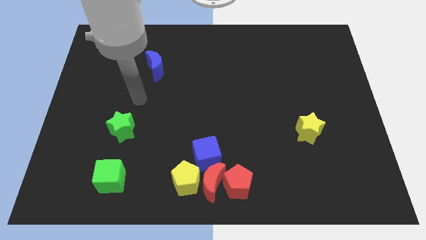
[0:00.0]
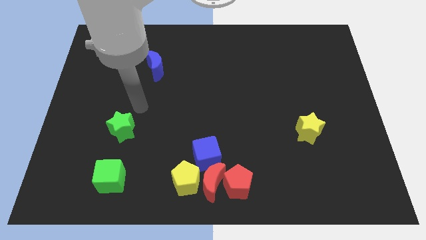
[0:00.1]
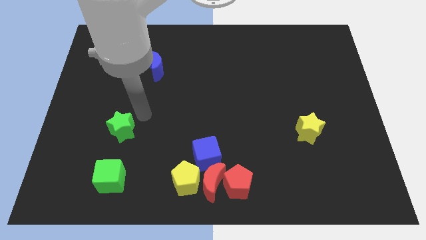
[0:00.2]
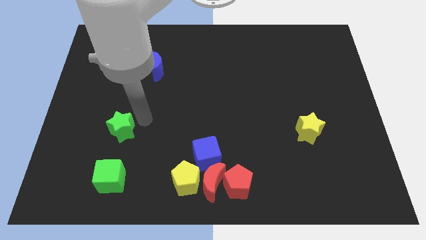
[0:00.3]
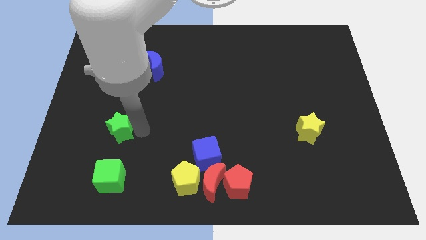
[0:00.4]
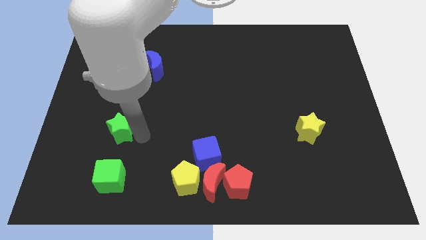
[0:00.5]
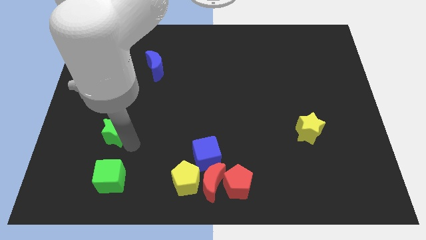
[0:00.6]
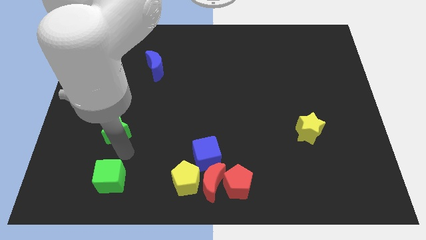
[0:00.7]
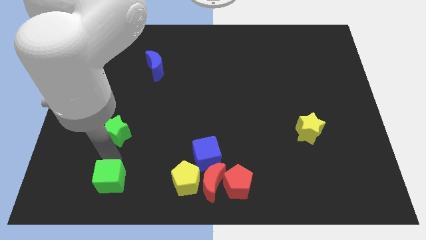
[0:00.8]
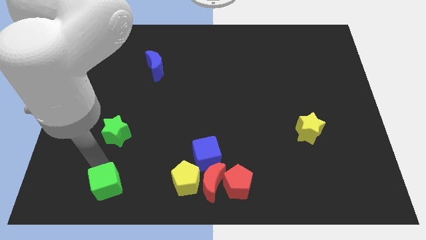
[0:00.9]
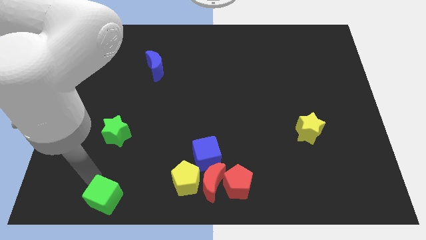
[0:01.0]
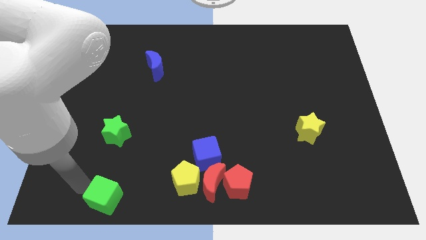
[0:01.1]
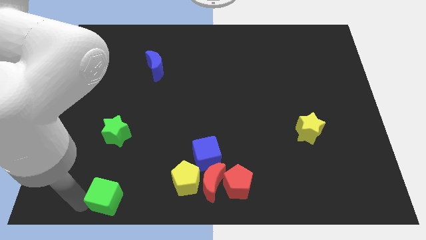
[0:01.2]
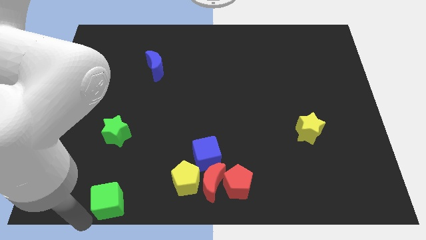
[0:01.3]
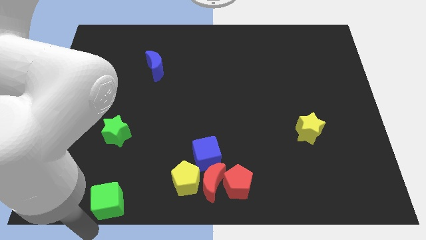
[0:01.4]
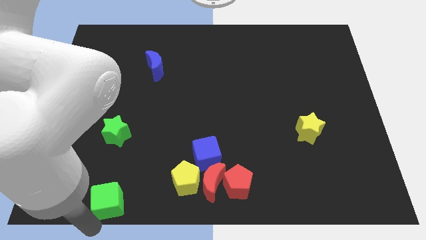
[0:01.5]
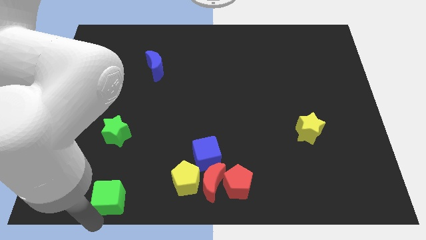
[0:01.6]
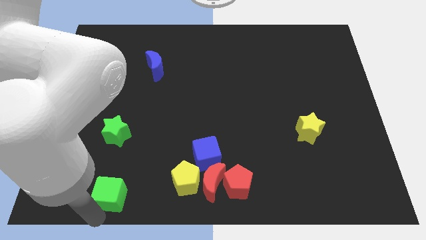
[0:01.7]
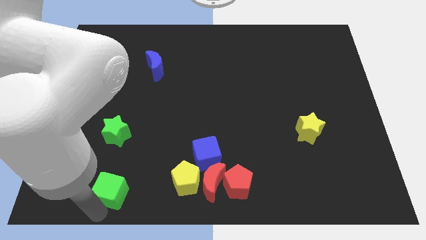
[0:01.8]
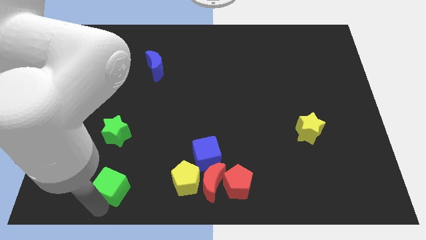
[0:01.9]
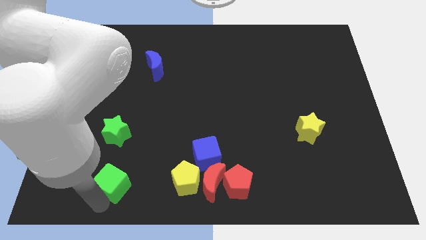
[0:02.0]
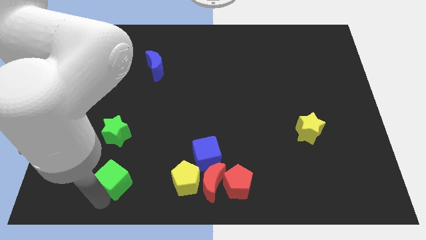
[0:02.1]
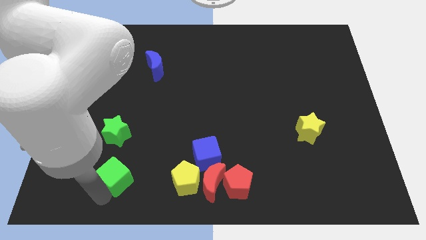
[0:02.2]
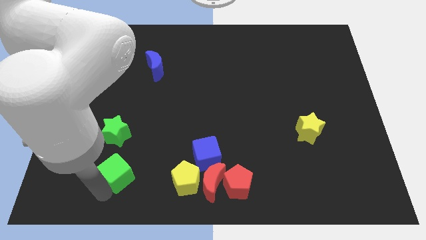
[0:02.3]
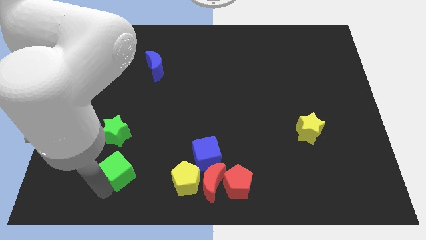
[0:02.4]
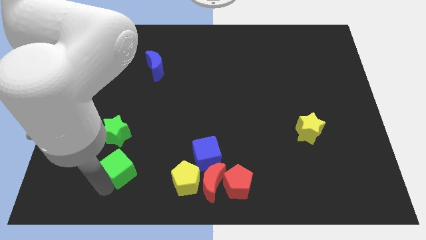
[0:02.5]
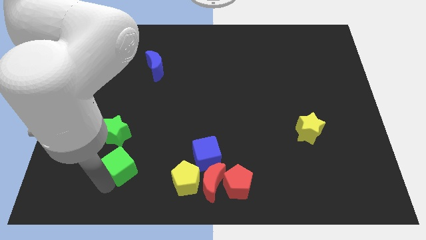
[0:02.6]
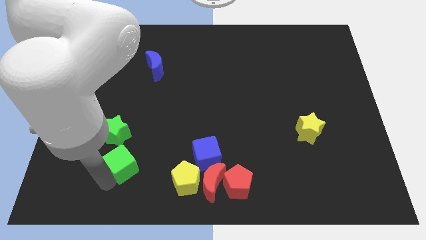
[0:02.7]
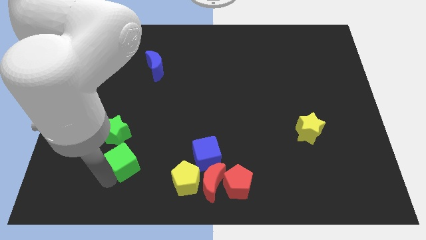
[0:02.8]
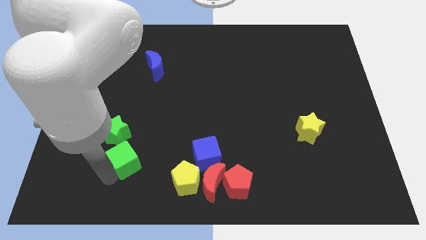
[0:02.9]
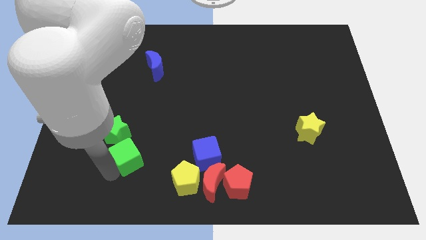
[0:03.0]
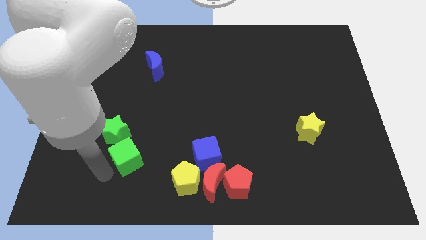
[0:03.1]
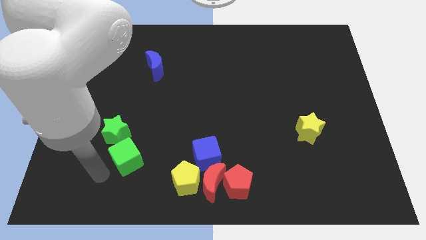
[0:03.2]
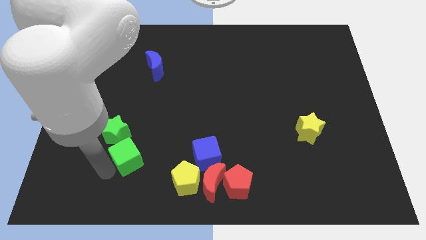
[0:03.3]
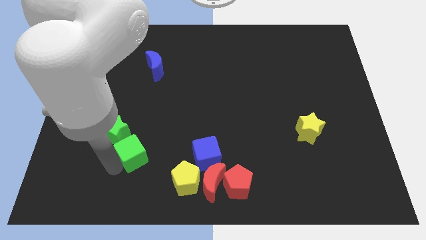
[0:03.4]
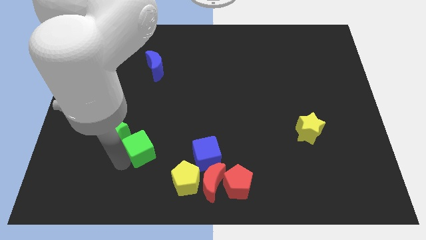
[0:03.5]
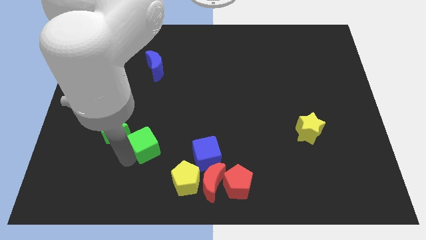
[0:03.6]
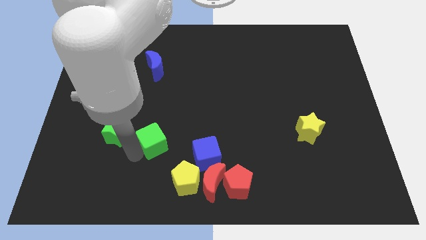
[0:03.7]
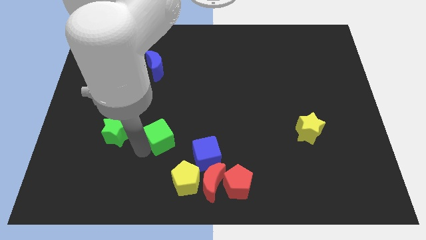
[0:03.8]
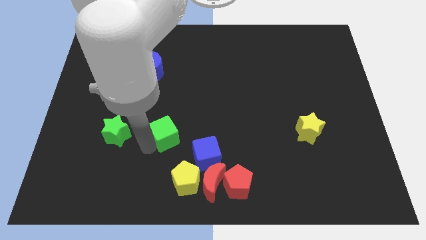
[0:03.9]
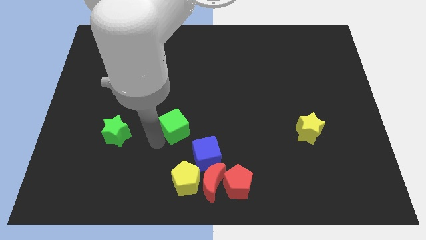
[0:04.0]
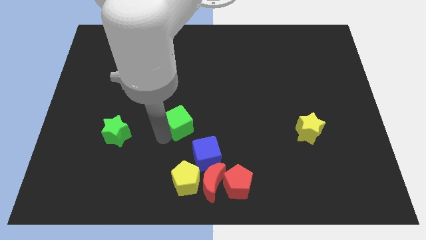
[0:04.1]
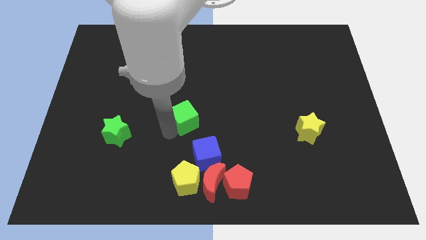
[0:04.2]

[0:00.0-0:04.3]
push the green cube up and then to the right

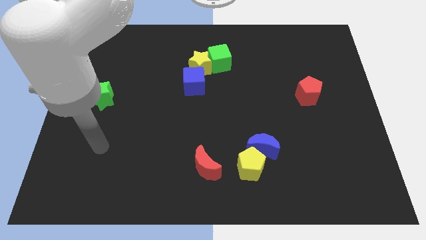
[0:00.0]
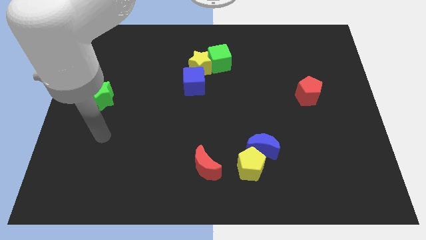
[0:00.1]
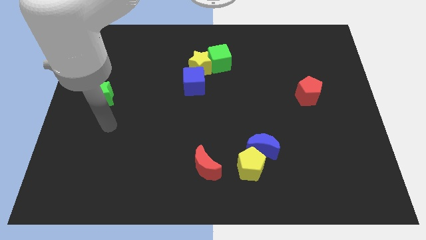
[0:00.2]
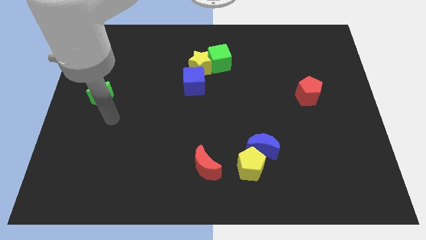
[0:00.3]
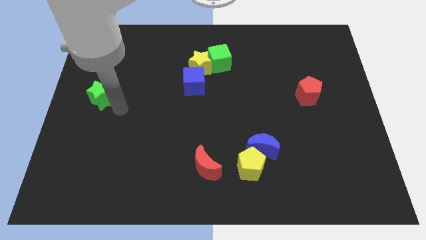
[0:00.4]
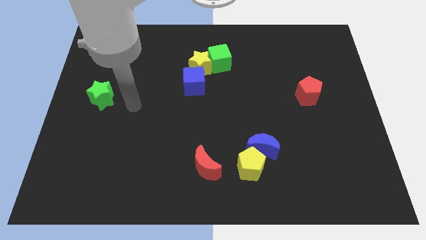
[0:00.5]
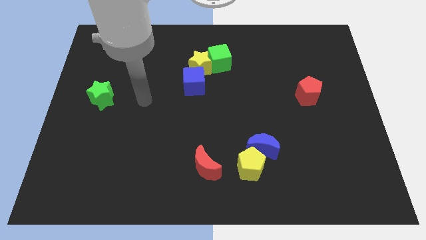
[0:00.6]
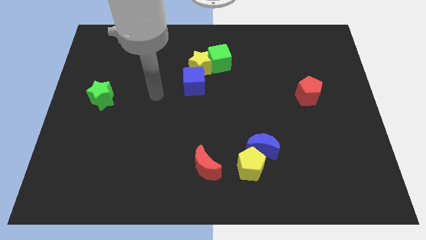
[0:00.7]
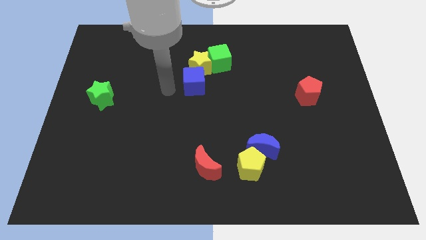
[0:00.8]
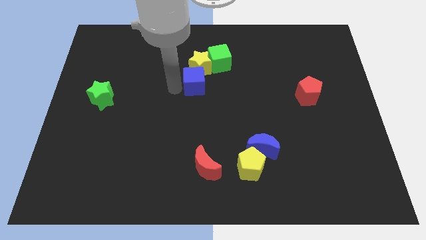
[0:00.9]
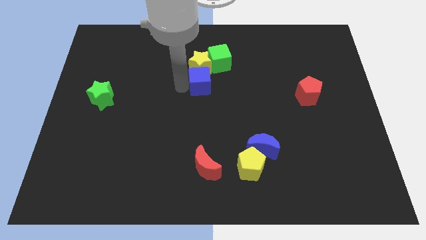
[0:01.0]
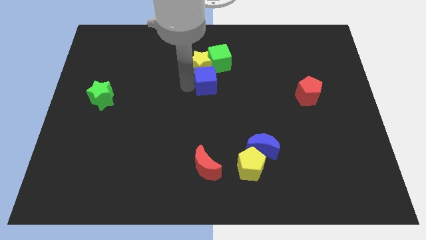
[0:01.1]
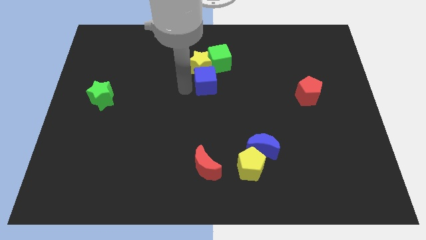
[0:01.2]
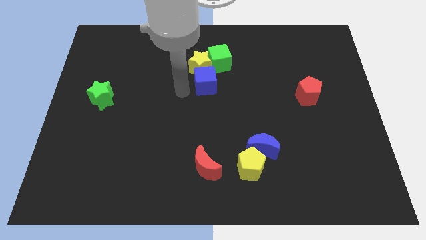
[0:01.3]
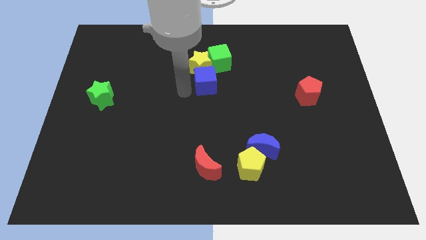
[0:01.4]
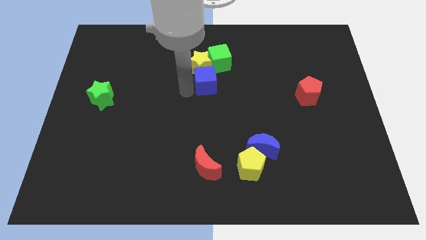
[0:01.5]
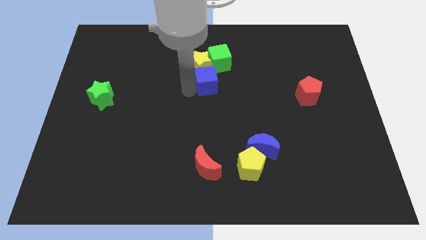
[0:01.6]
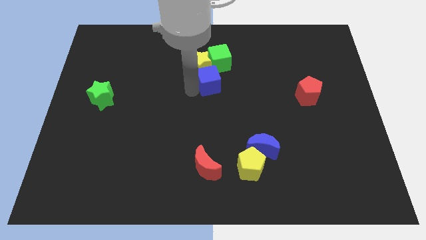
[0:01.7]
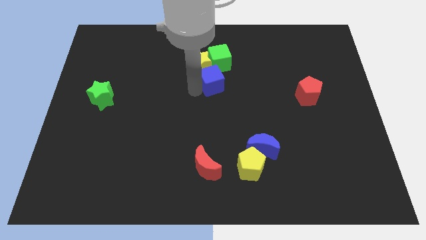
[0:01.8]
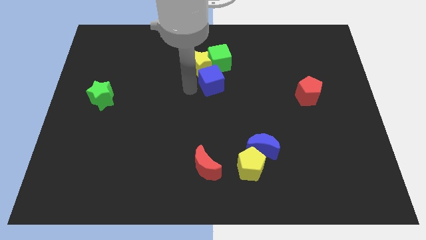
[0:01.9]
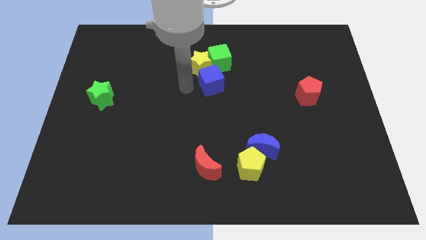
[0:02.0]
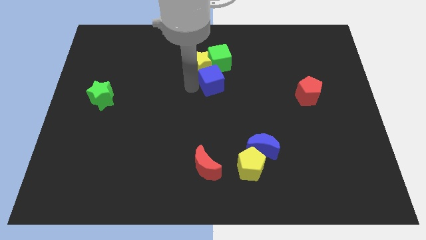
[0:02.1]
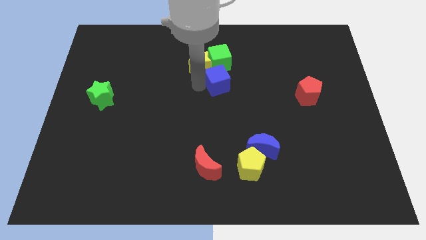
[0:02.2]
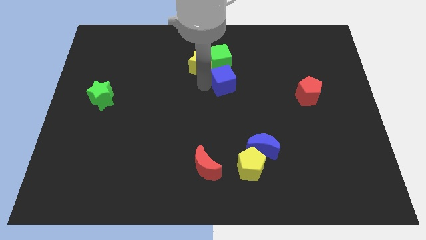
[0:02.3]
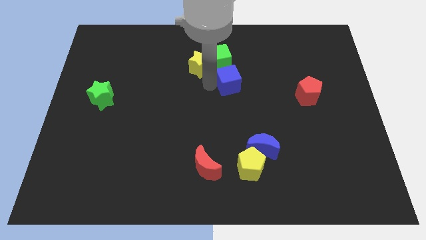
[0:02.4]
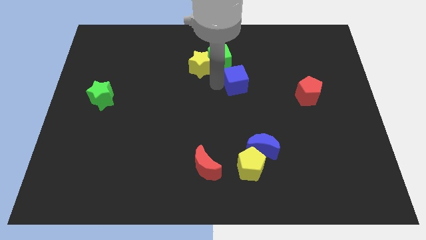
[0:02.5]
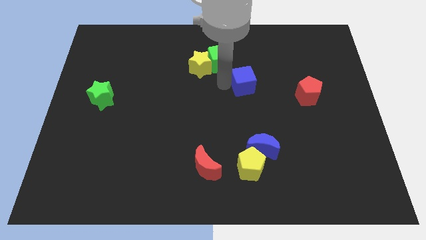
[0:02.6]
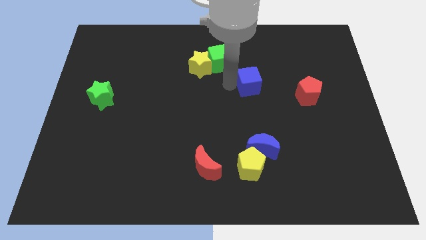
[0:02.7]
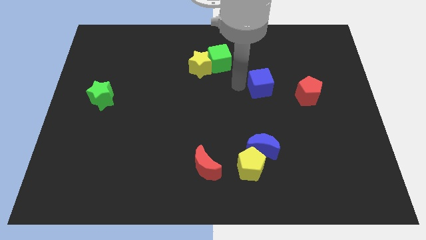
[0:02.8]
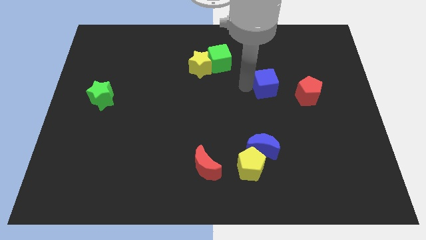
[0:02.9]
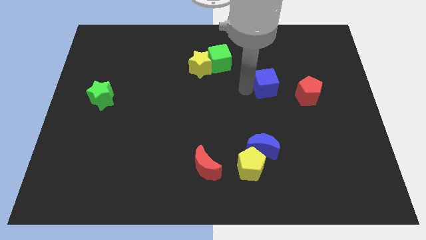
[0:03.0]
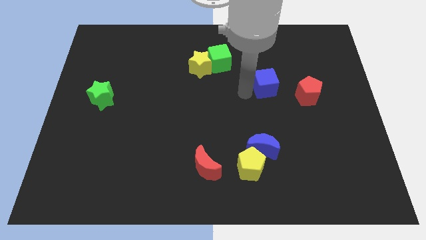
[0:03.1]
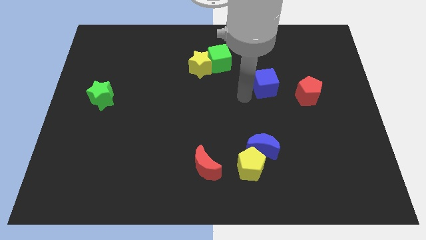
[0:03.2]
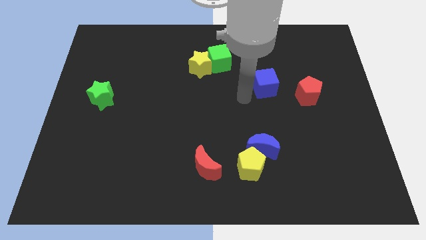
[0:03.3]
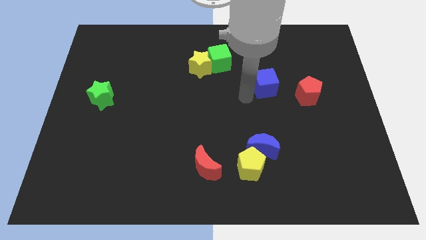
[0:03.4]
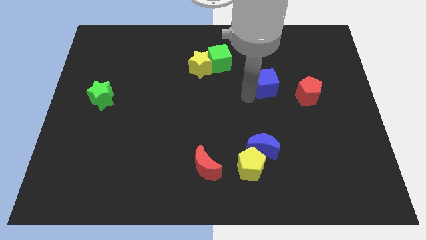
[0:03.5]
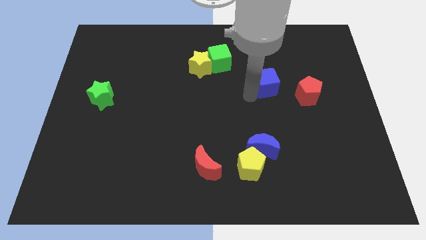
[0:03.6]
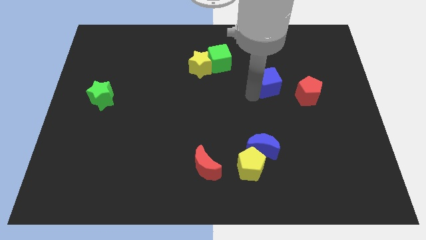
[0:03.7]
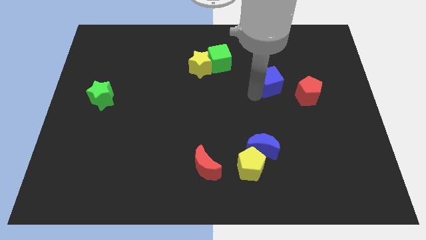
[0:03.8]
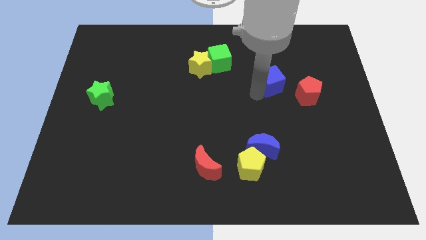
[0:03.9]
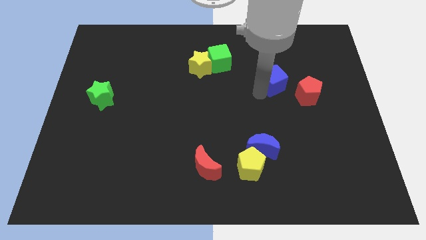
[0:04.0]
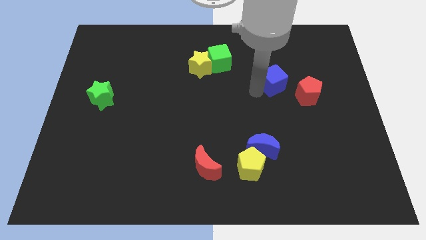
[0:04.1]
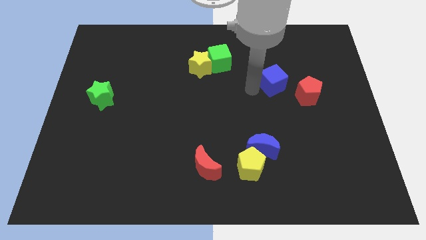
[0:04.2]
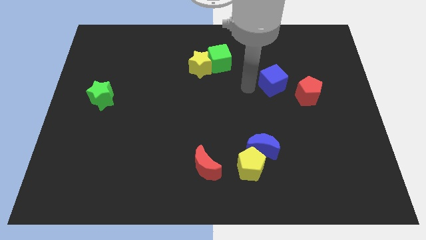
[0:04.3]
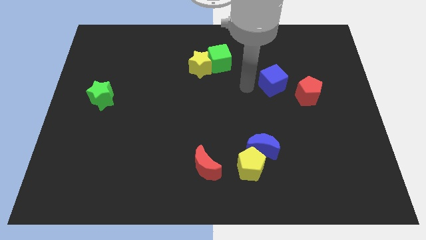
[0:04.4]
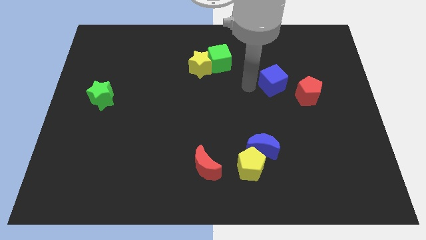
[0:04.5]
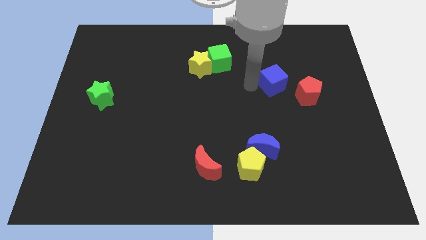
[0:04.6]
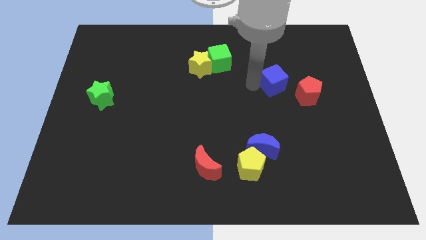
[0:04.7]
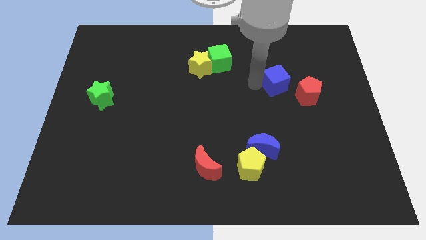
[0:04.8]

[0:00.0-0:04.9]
slide the blue cube right
